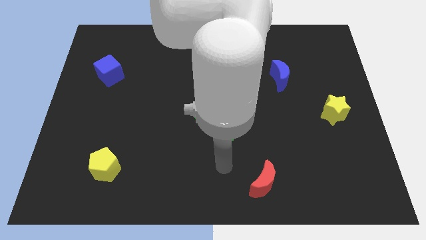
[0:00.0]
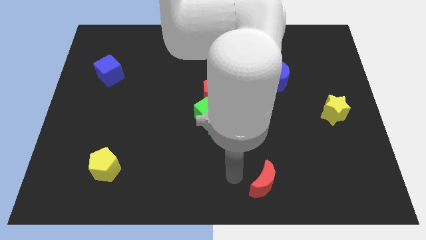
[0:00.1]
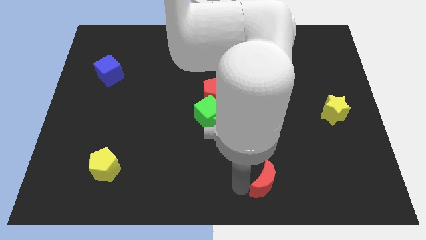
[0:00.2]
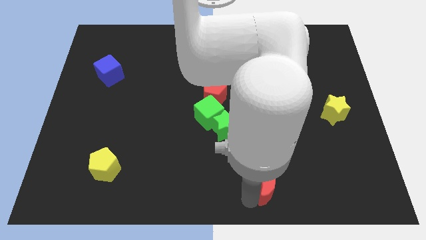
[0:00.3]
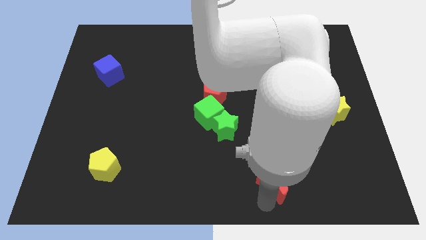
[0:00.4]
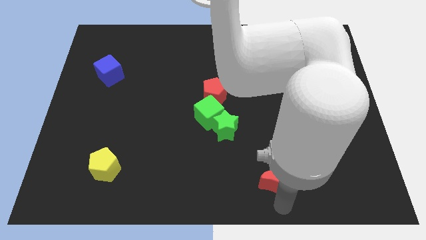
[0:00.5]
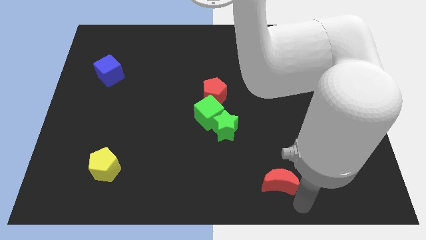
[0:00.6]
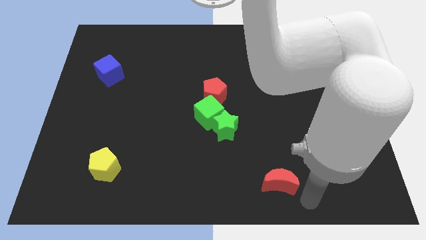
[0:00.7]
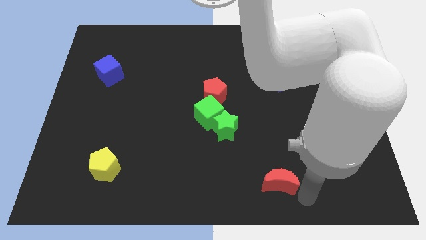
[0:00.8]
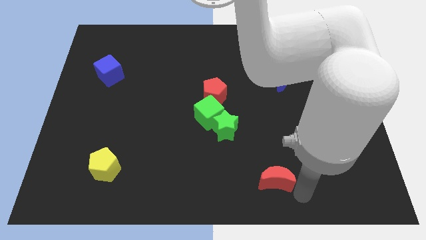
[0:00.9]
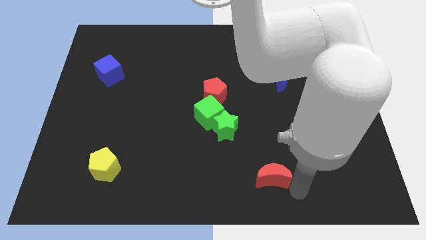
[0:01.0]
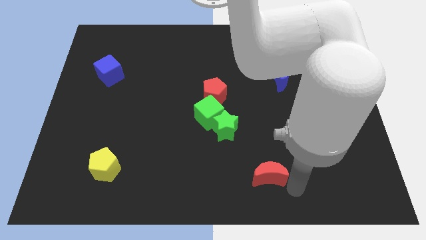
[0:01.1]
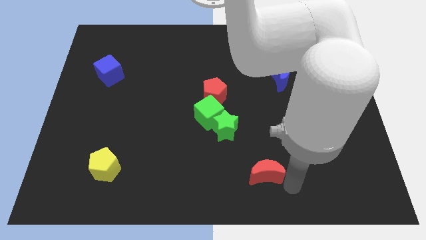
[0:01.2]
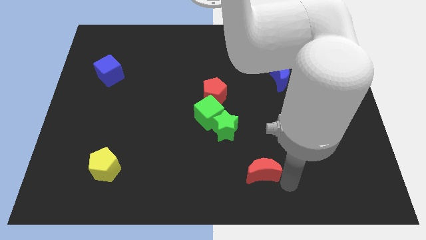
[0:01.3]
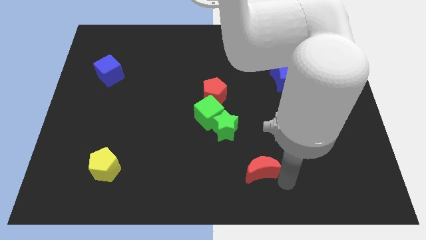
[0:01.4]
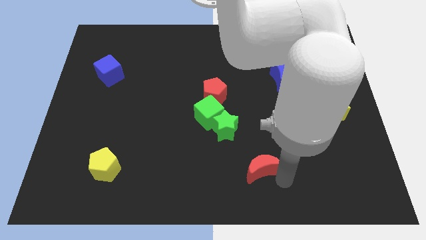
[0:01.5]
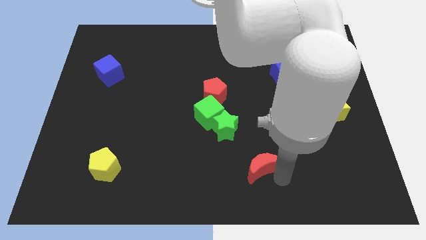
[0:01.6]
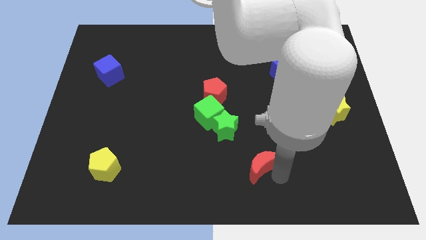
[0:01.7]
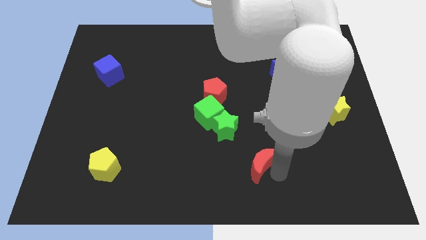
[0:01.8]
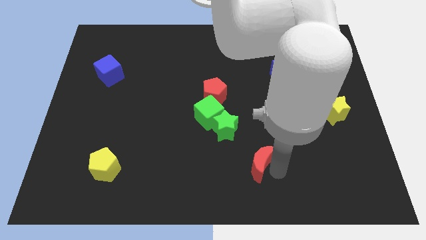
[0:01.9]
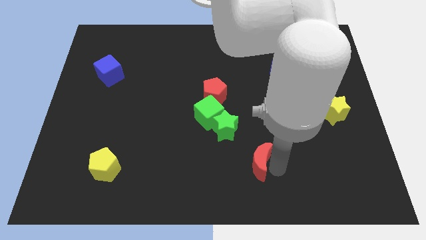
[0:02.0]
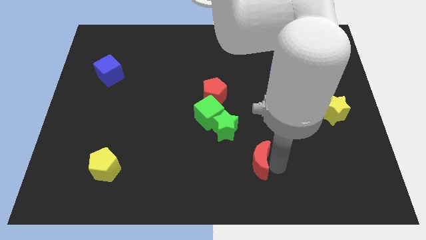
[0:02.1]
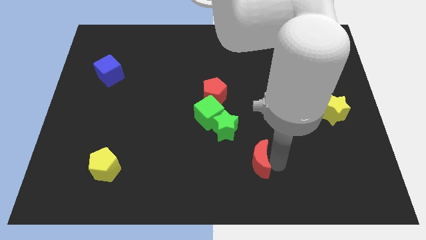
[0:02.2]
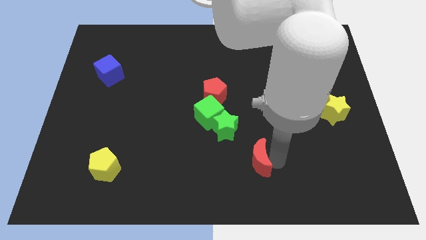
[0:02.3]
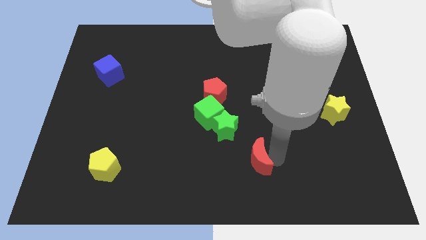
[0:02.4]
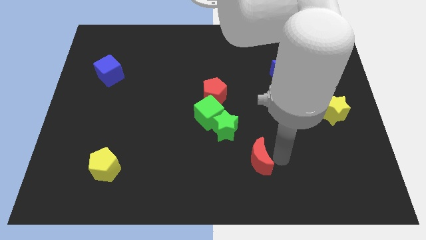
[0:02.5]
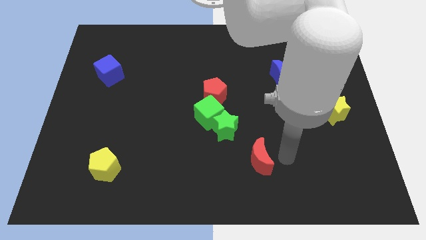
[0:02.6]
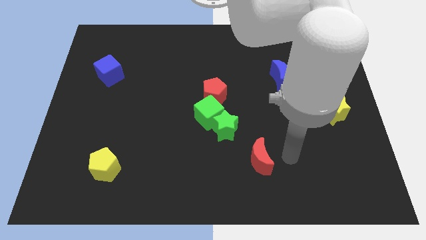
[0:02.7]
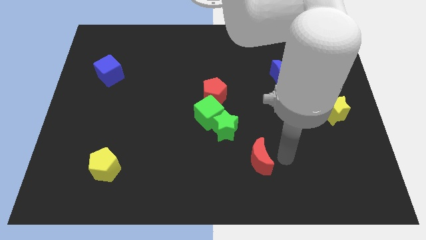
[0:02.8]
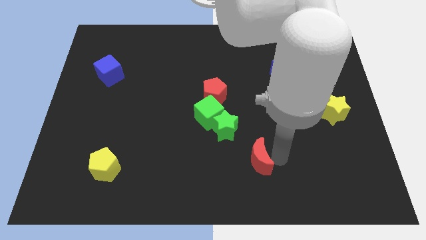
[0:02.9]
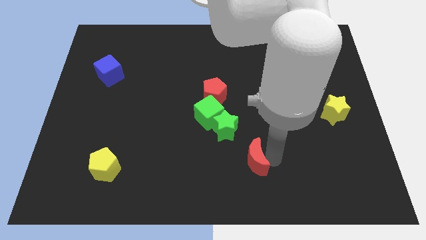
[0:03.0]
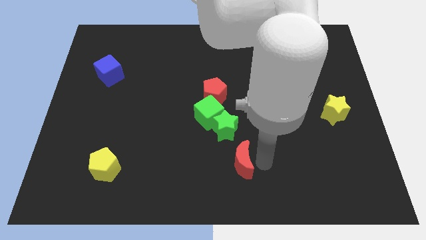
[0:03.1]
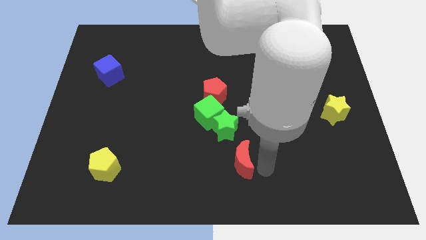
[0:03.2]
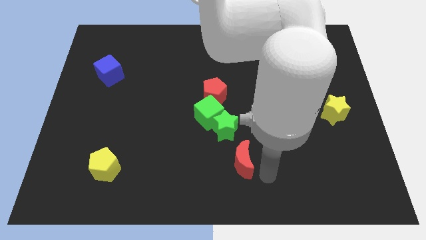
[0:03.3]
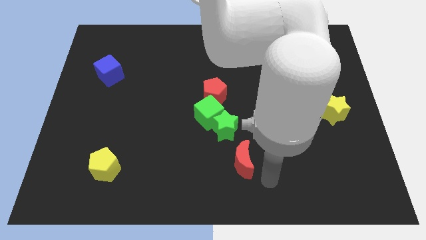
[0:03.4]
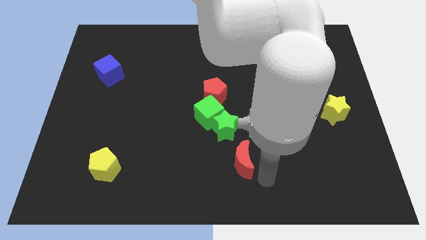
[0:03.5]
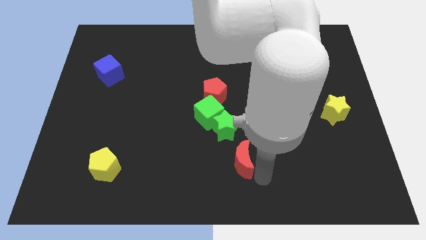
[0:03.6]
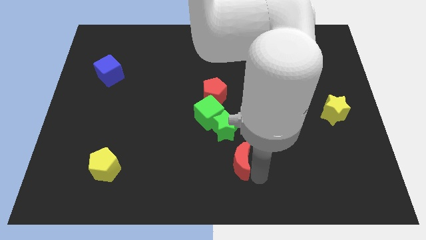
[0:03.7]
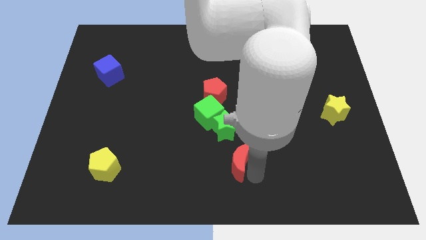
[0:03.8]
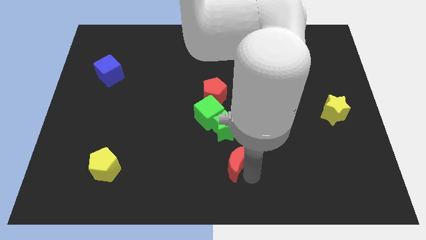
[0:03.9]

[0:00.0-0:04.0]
push the red moon up and left a little bit

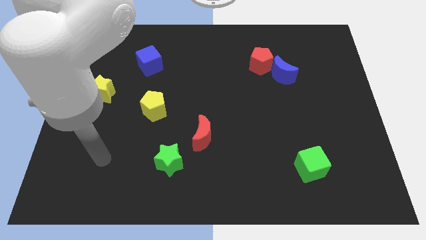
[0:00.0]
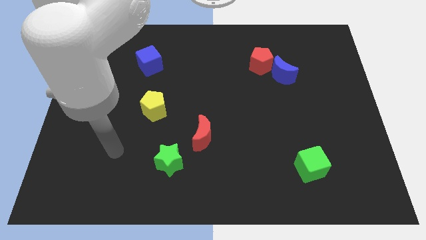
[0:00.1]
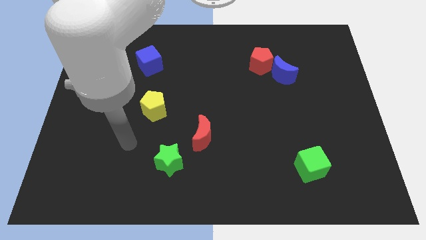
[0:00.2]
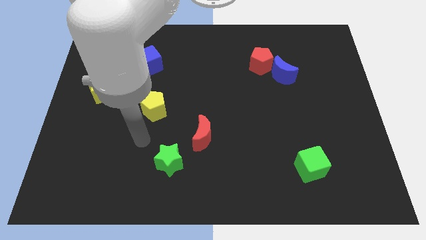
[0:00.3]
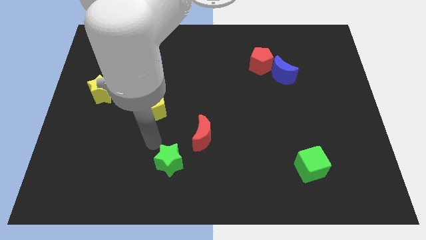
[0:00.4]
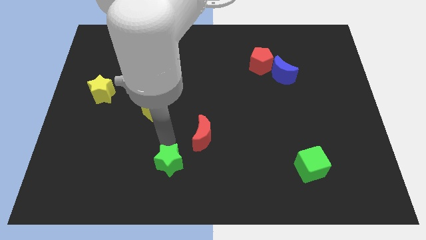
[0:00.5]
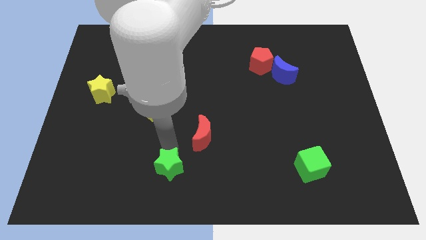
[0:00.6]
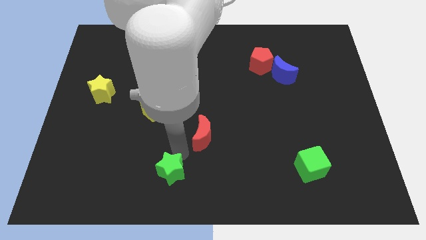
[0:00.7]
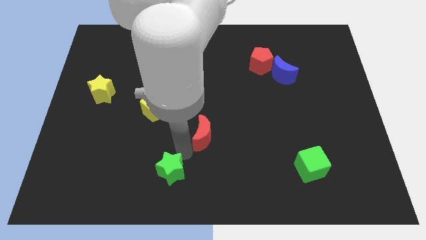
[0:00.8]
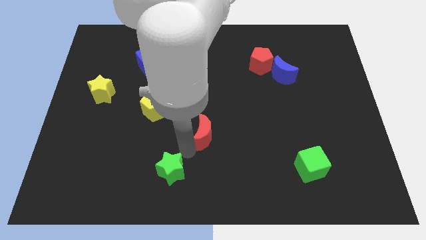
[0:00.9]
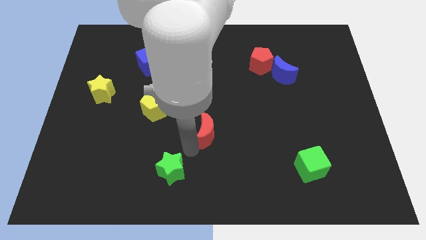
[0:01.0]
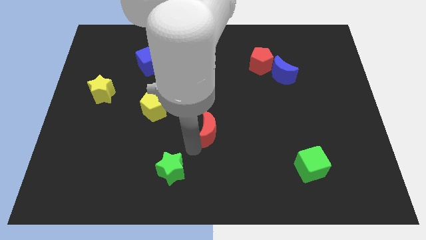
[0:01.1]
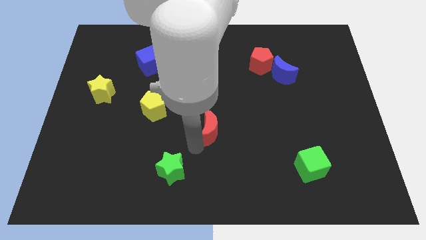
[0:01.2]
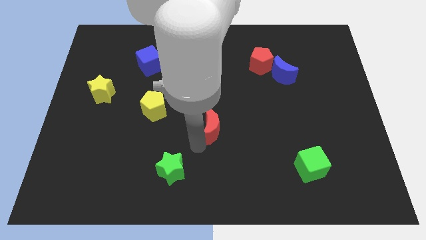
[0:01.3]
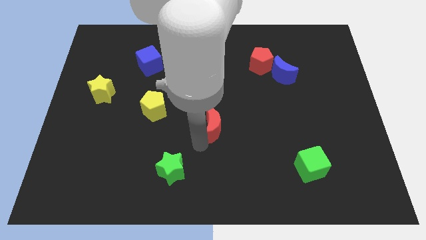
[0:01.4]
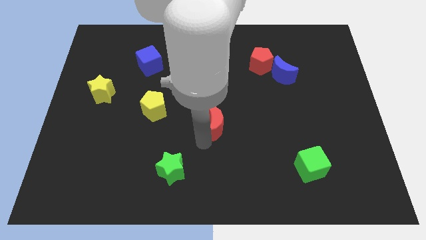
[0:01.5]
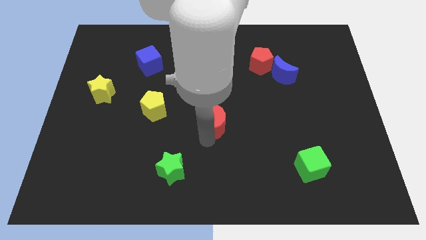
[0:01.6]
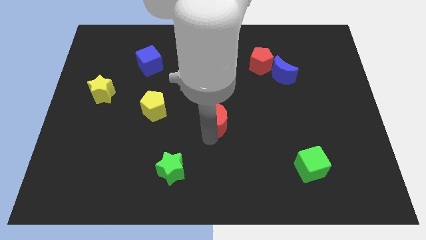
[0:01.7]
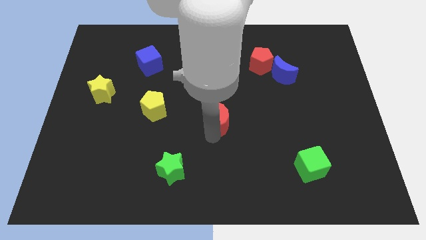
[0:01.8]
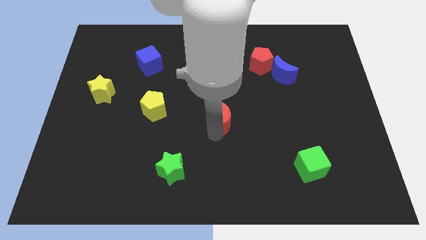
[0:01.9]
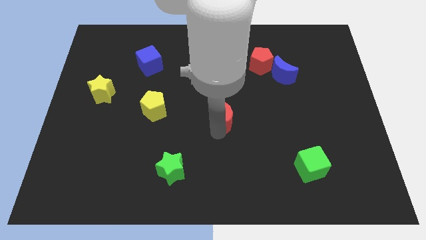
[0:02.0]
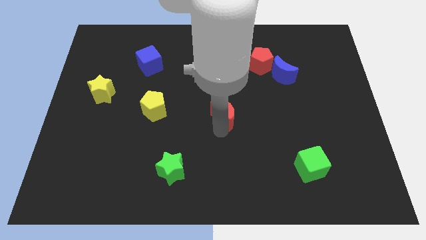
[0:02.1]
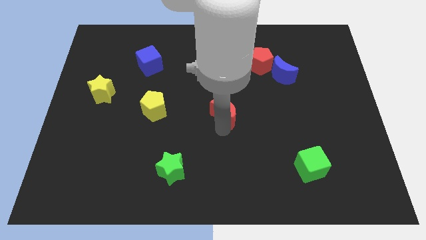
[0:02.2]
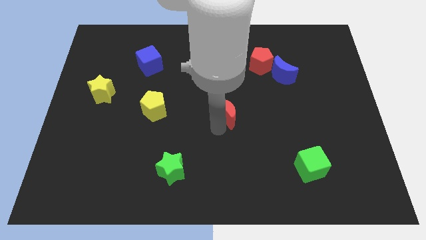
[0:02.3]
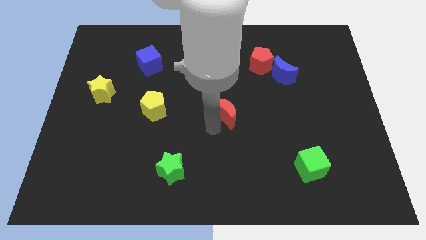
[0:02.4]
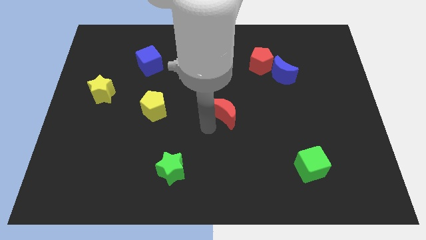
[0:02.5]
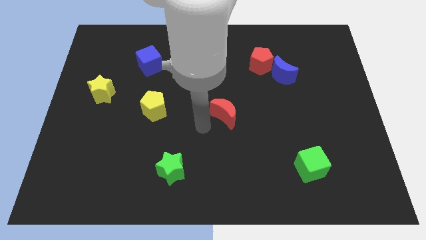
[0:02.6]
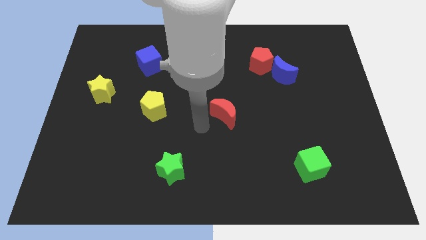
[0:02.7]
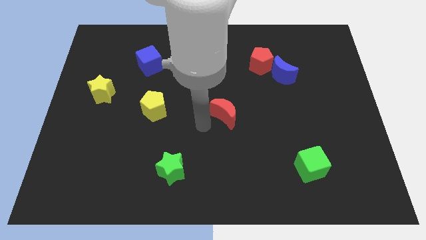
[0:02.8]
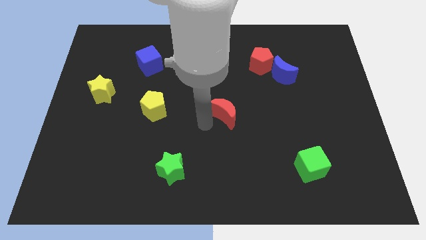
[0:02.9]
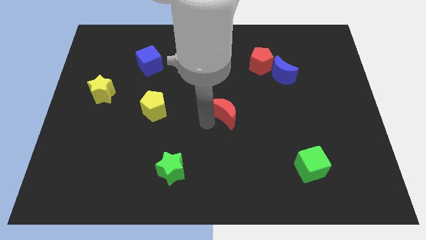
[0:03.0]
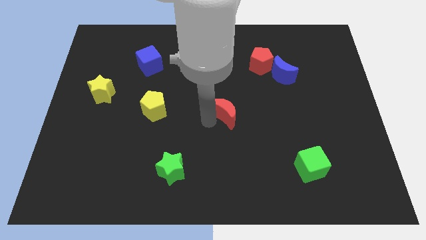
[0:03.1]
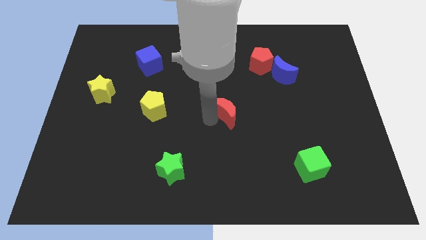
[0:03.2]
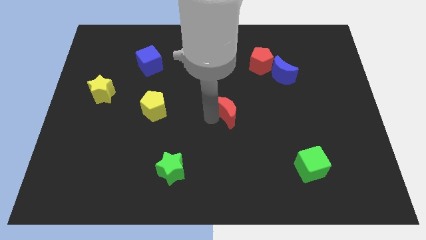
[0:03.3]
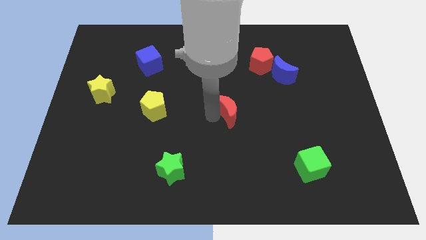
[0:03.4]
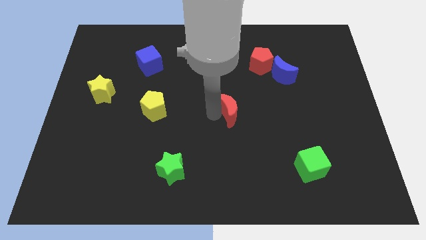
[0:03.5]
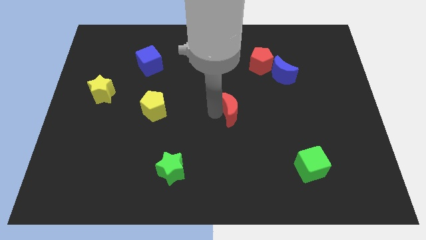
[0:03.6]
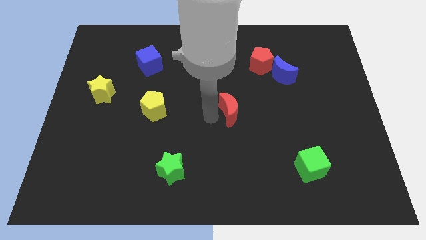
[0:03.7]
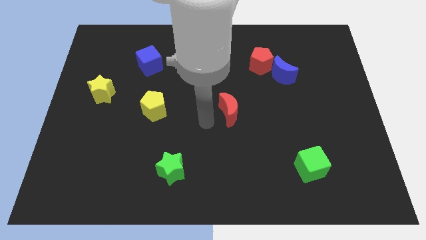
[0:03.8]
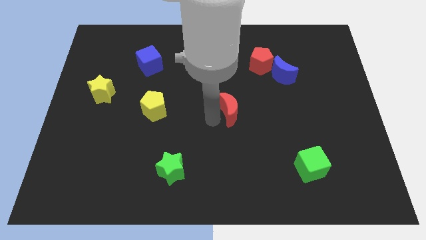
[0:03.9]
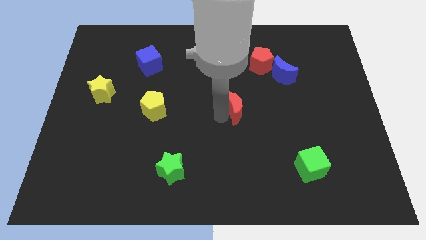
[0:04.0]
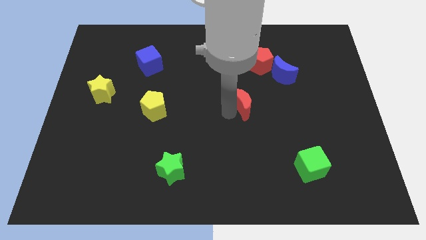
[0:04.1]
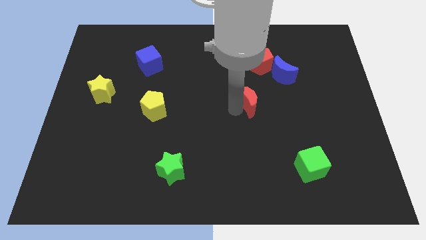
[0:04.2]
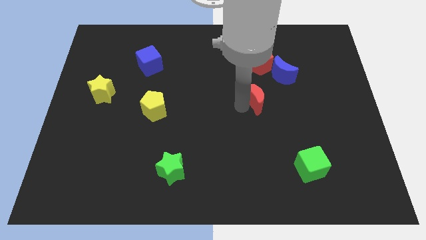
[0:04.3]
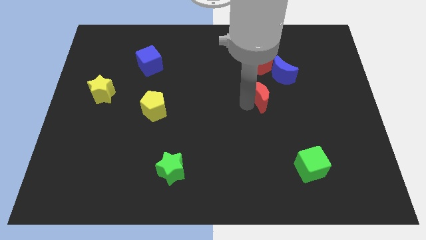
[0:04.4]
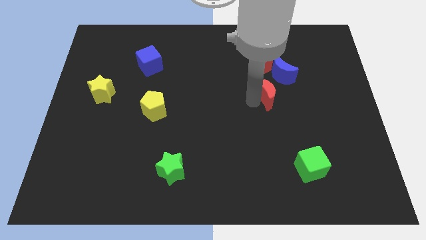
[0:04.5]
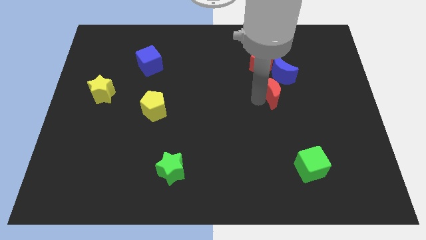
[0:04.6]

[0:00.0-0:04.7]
slide the red moon upwards and right
